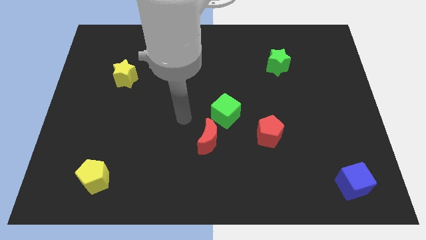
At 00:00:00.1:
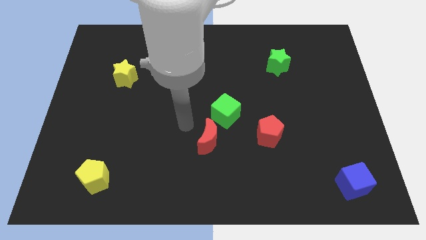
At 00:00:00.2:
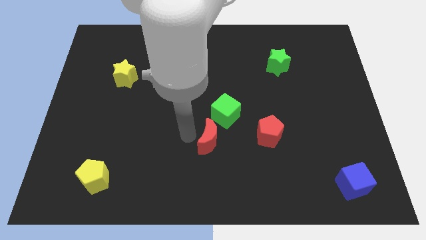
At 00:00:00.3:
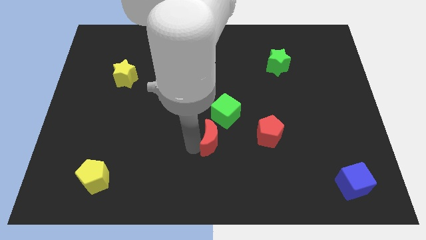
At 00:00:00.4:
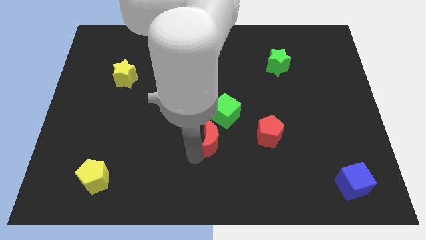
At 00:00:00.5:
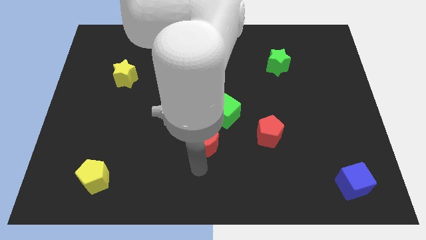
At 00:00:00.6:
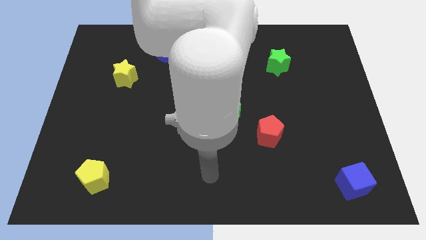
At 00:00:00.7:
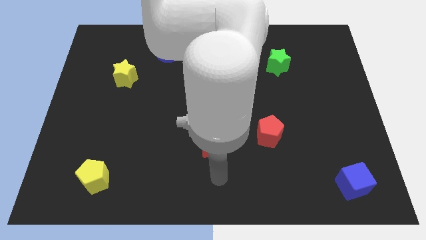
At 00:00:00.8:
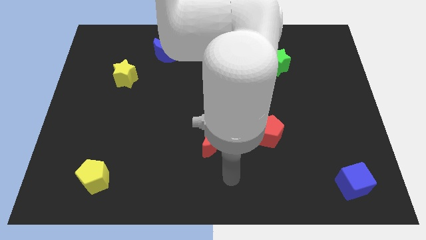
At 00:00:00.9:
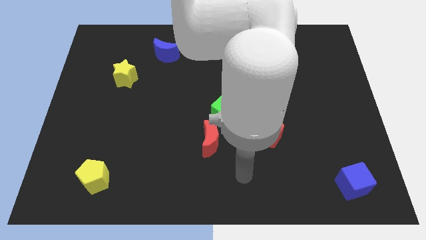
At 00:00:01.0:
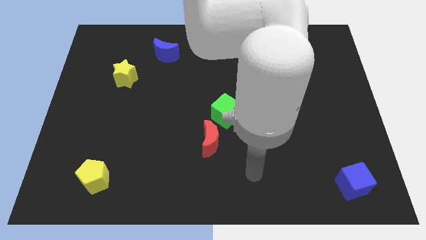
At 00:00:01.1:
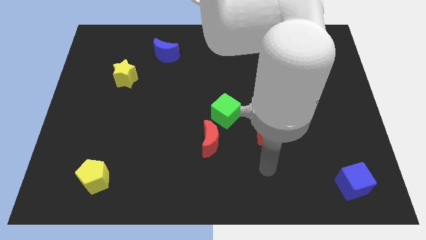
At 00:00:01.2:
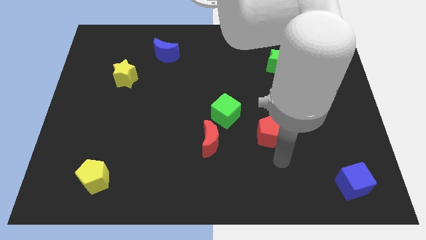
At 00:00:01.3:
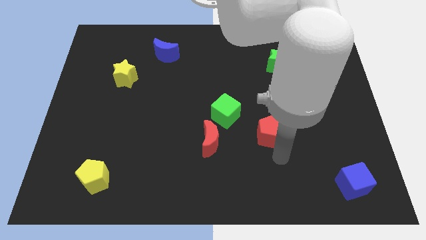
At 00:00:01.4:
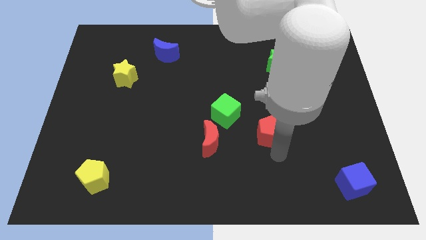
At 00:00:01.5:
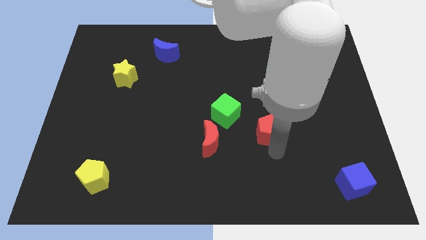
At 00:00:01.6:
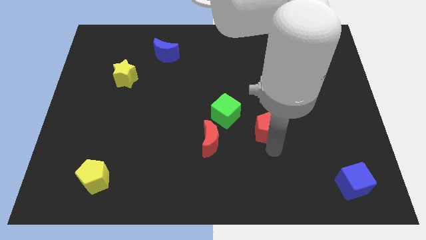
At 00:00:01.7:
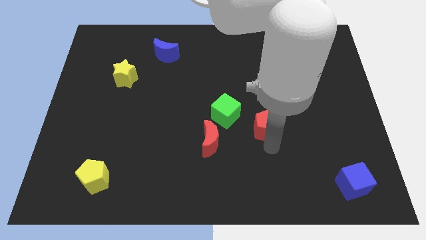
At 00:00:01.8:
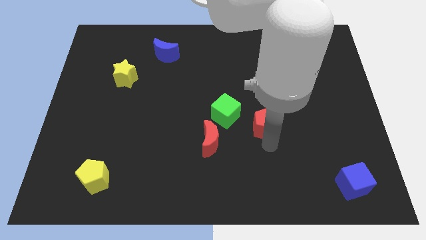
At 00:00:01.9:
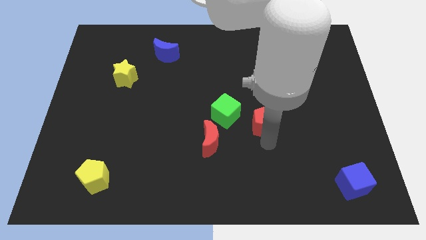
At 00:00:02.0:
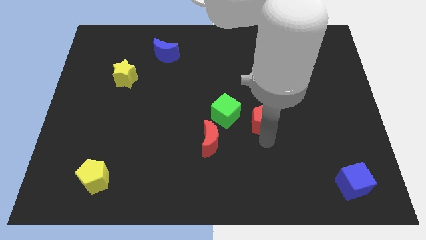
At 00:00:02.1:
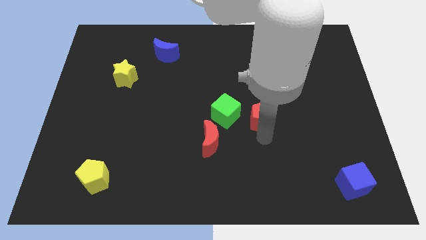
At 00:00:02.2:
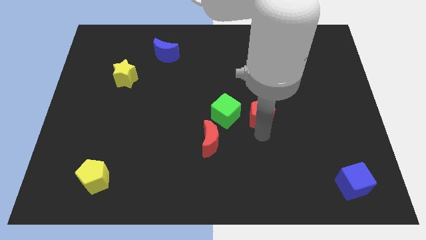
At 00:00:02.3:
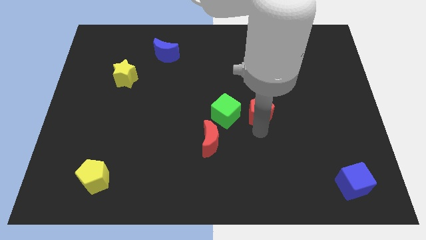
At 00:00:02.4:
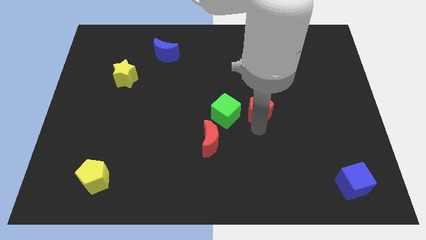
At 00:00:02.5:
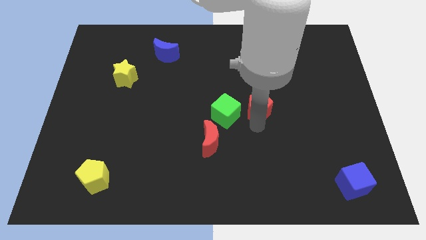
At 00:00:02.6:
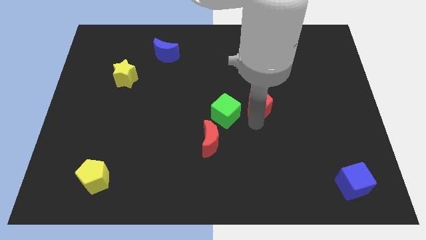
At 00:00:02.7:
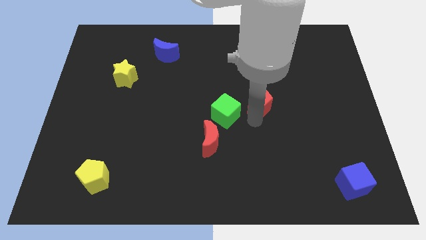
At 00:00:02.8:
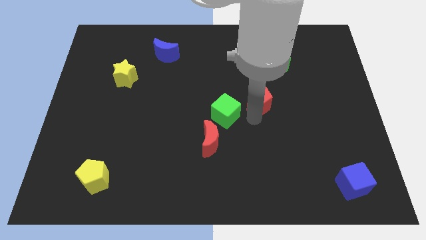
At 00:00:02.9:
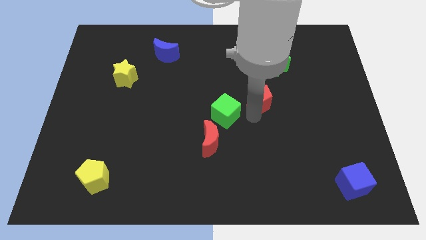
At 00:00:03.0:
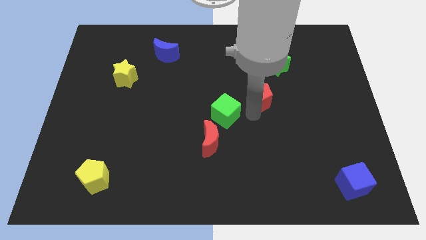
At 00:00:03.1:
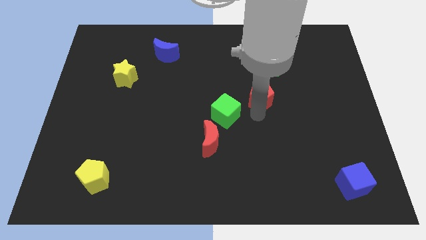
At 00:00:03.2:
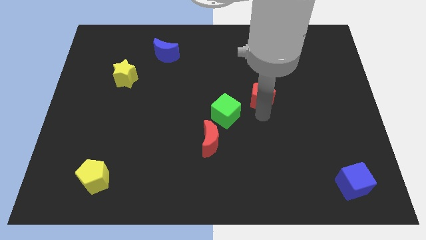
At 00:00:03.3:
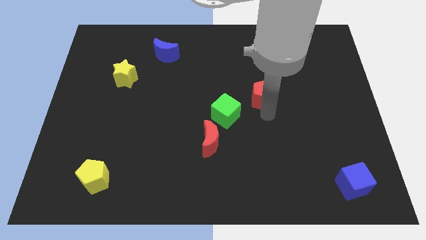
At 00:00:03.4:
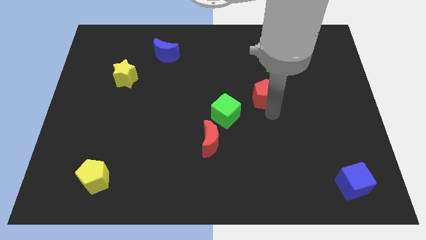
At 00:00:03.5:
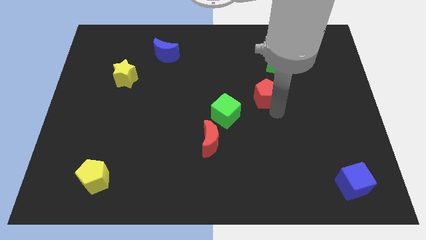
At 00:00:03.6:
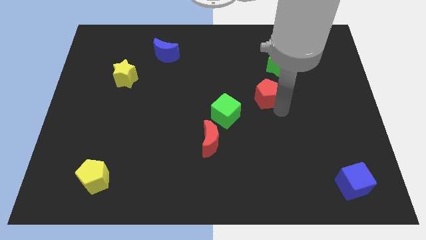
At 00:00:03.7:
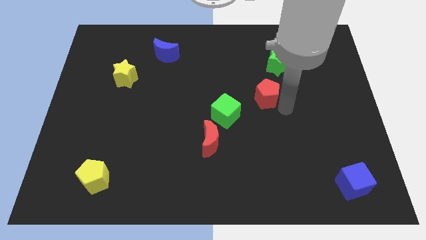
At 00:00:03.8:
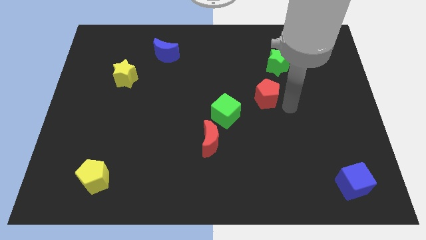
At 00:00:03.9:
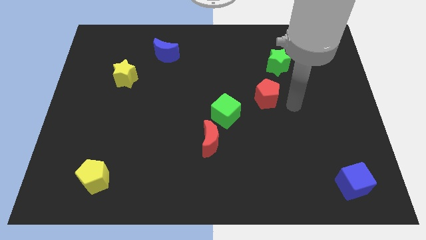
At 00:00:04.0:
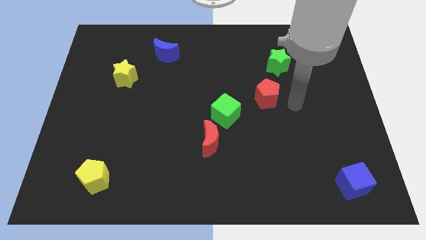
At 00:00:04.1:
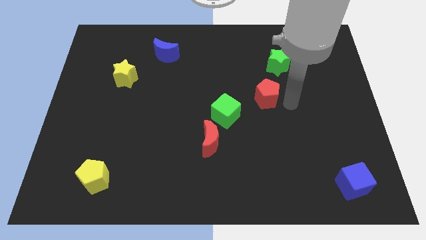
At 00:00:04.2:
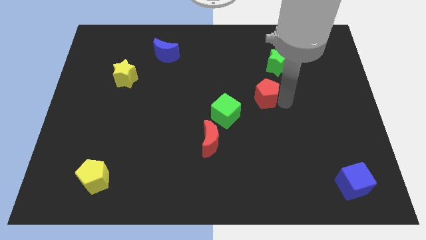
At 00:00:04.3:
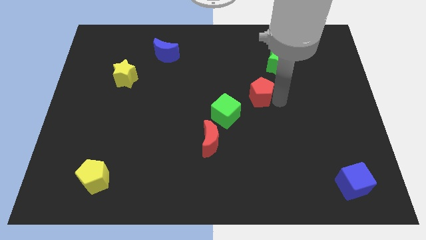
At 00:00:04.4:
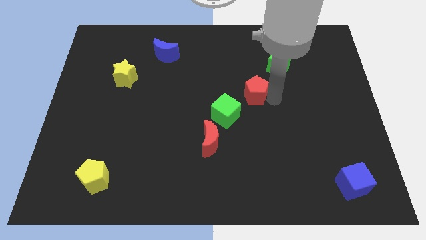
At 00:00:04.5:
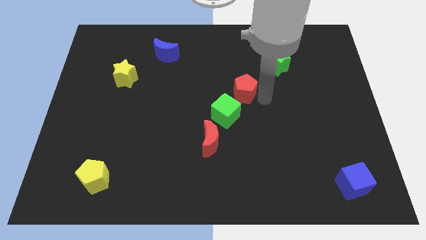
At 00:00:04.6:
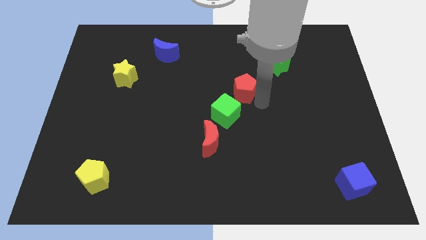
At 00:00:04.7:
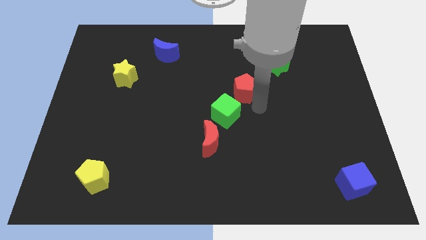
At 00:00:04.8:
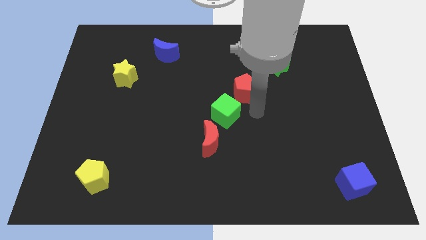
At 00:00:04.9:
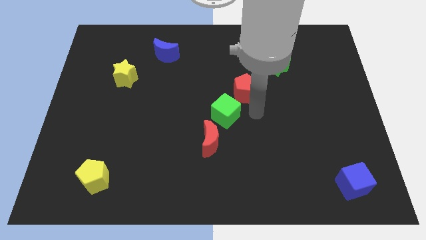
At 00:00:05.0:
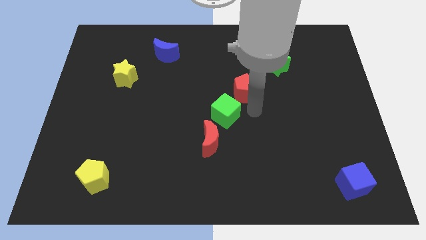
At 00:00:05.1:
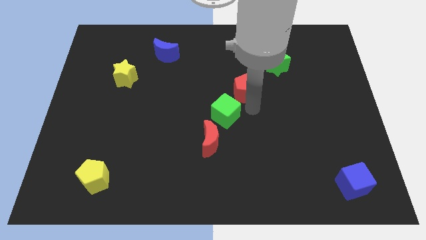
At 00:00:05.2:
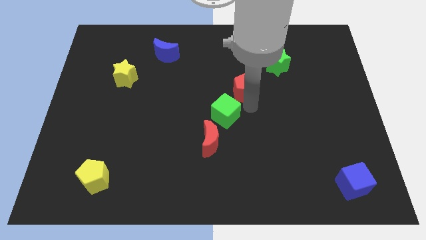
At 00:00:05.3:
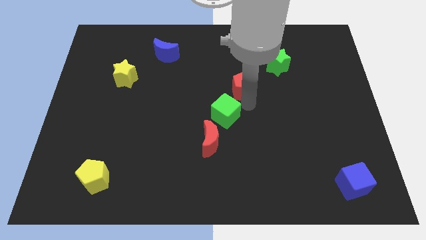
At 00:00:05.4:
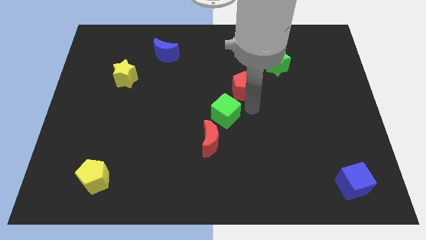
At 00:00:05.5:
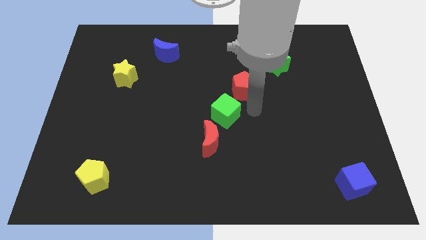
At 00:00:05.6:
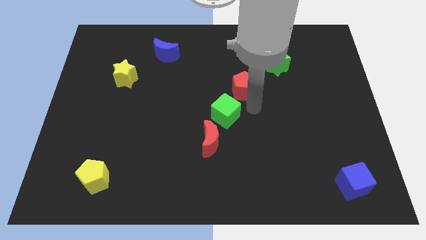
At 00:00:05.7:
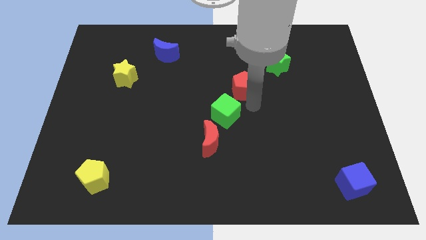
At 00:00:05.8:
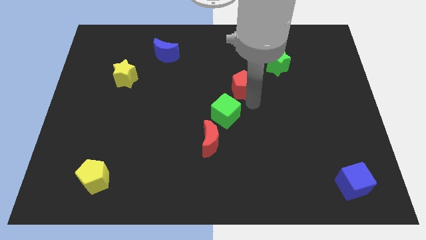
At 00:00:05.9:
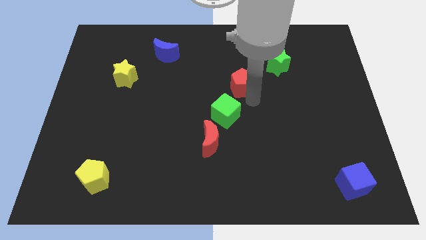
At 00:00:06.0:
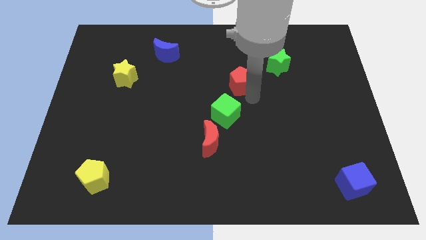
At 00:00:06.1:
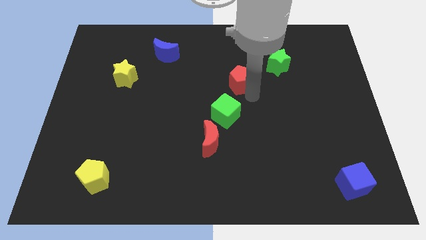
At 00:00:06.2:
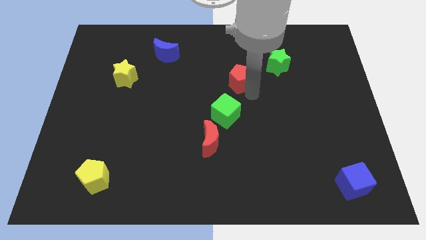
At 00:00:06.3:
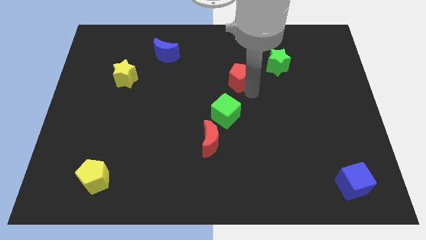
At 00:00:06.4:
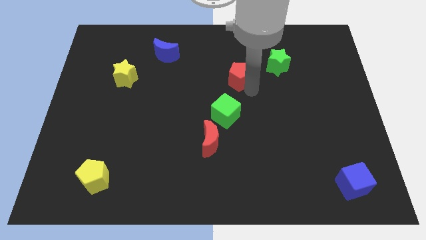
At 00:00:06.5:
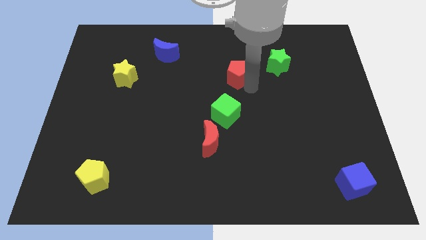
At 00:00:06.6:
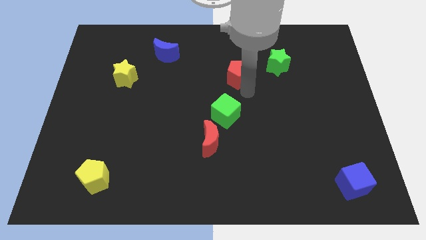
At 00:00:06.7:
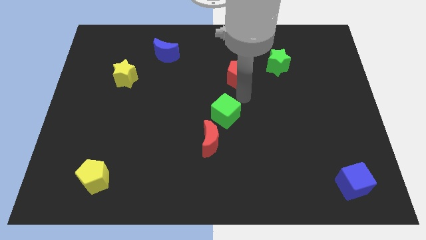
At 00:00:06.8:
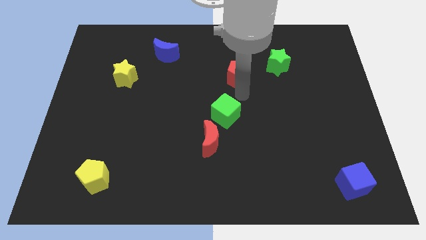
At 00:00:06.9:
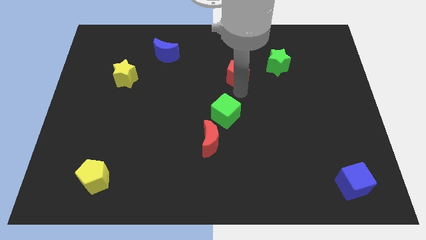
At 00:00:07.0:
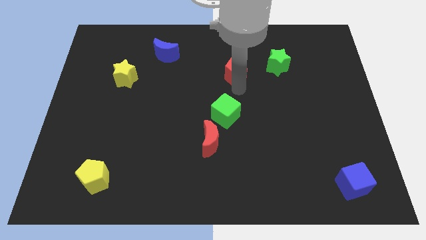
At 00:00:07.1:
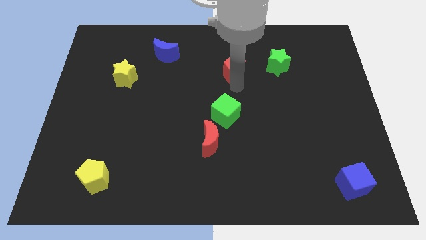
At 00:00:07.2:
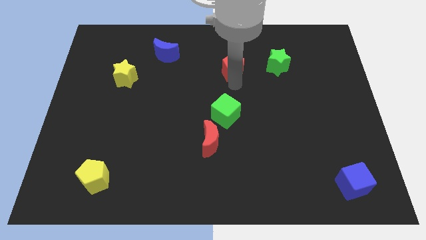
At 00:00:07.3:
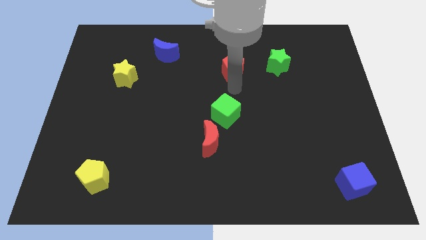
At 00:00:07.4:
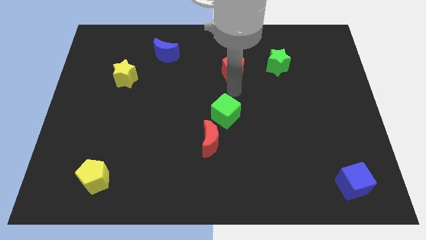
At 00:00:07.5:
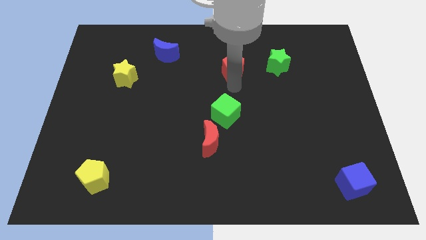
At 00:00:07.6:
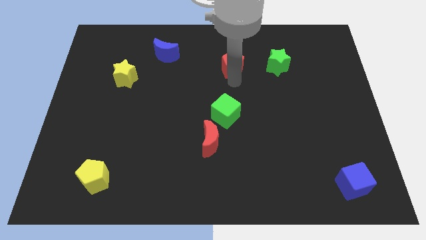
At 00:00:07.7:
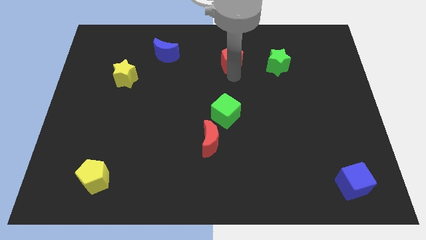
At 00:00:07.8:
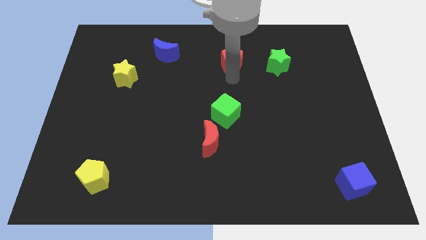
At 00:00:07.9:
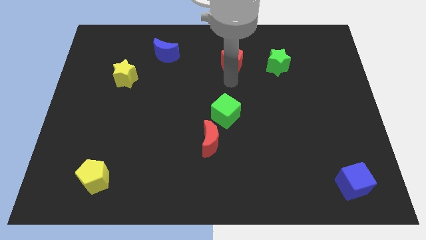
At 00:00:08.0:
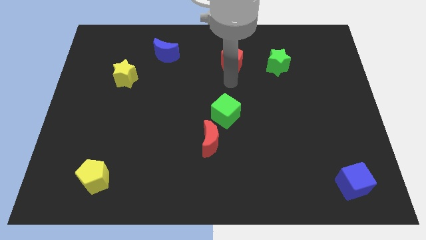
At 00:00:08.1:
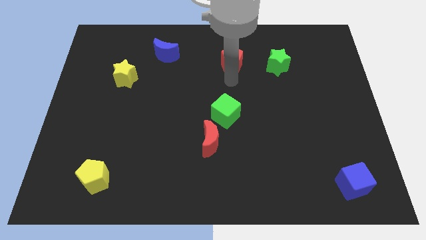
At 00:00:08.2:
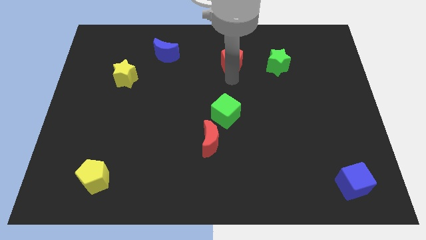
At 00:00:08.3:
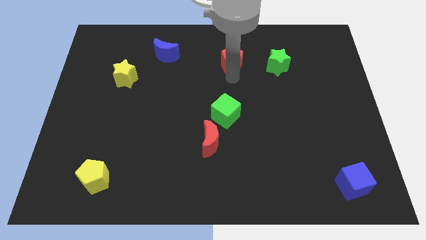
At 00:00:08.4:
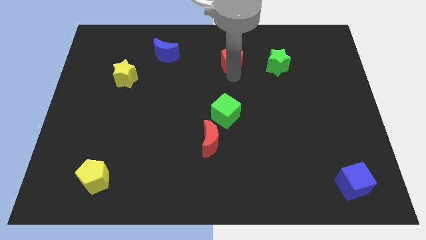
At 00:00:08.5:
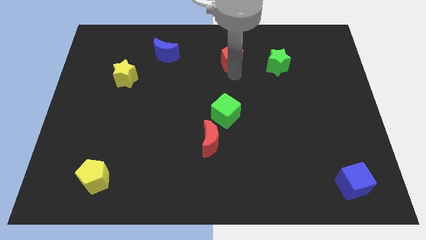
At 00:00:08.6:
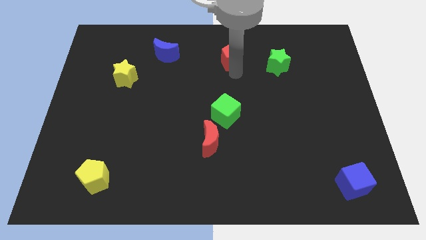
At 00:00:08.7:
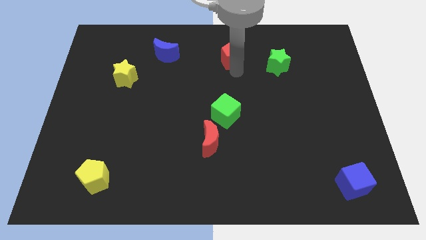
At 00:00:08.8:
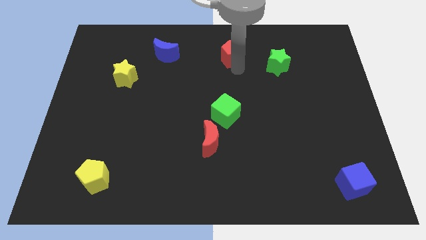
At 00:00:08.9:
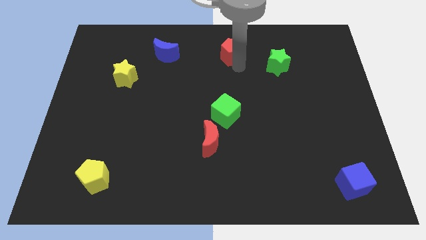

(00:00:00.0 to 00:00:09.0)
slide the red pentagon to the towards your base
